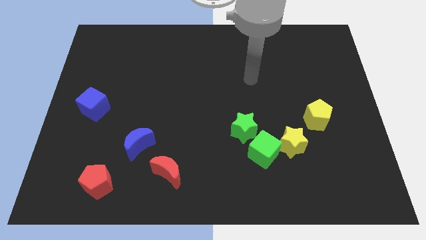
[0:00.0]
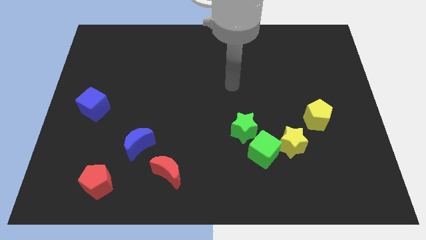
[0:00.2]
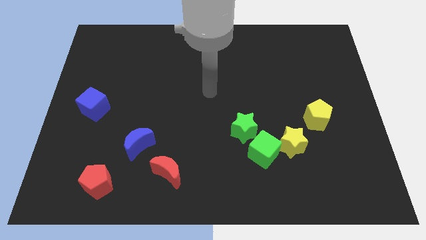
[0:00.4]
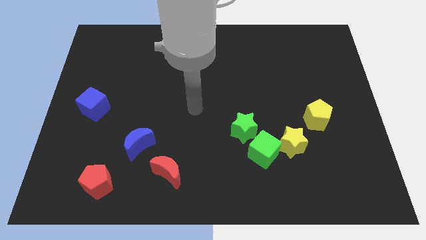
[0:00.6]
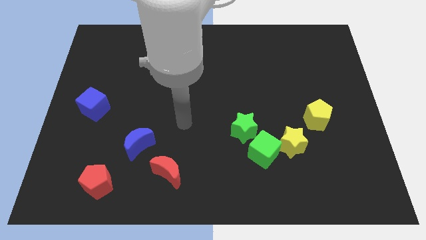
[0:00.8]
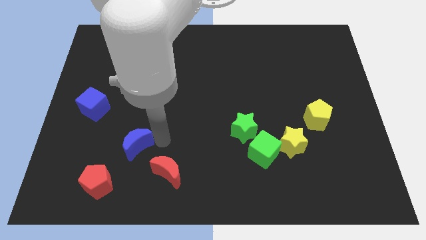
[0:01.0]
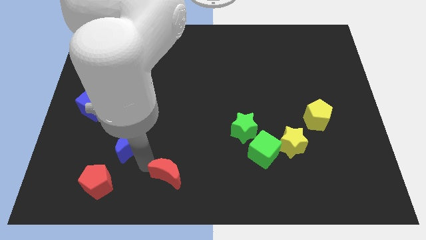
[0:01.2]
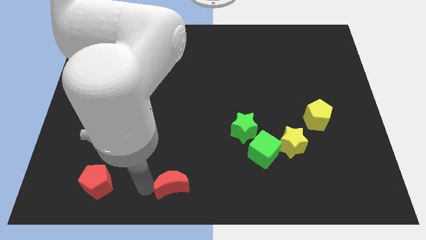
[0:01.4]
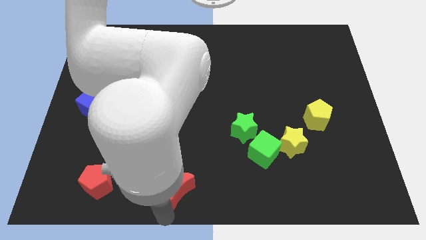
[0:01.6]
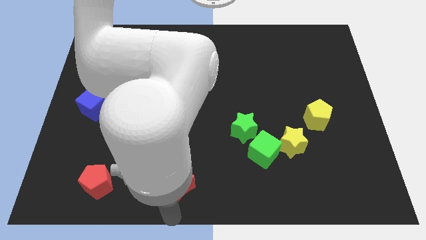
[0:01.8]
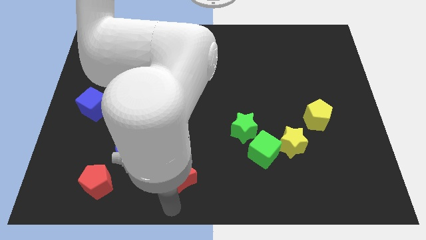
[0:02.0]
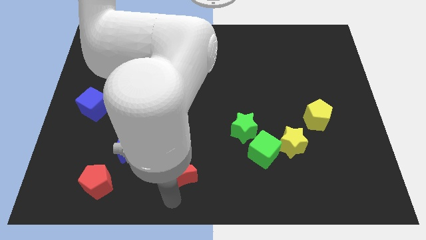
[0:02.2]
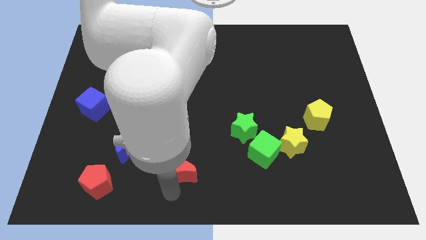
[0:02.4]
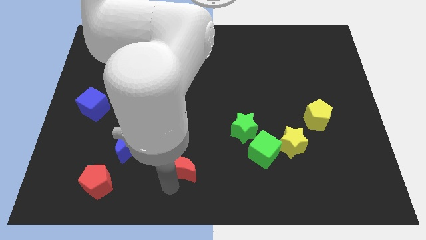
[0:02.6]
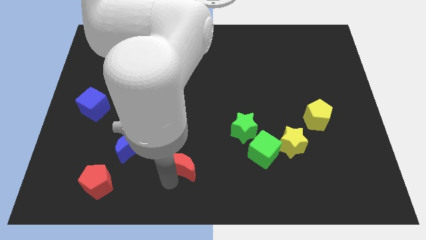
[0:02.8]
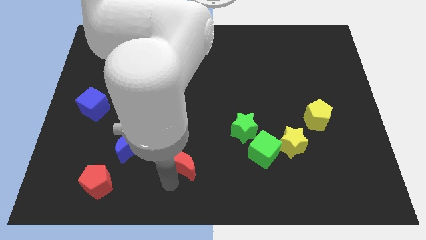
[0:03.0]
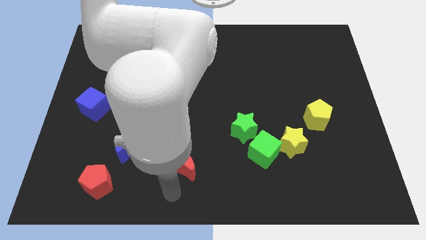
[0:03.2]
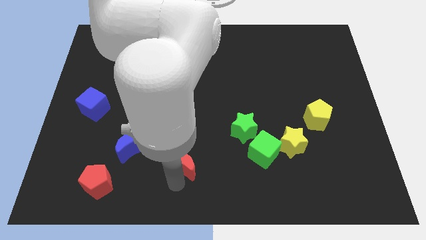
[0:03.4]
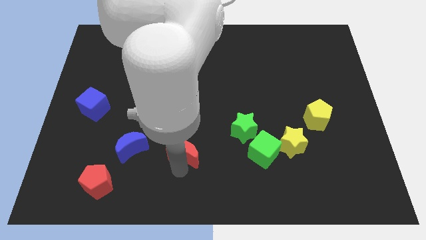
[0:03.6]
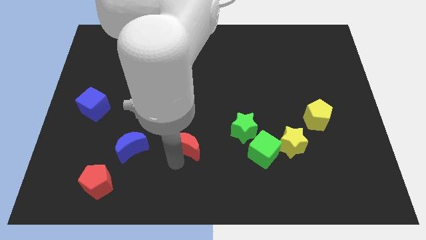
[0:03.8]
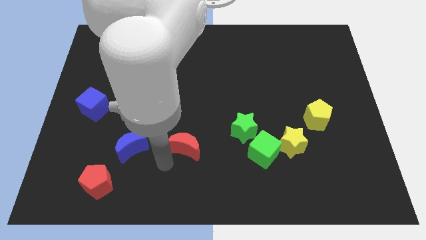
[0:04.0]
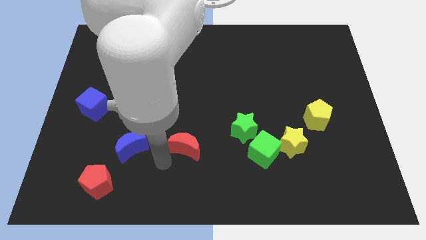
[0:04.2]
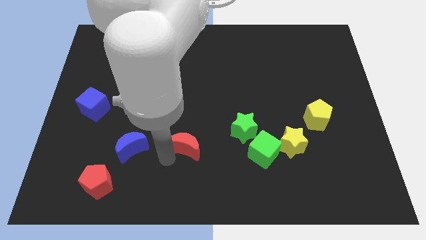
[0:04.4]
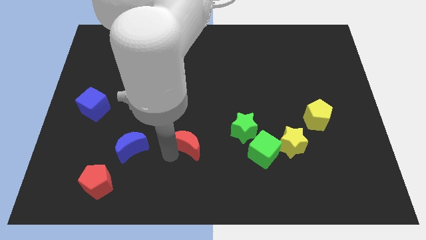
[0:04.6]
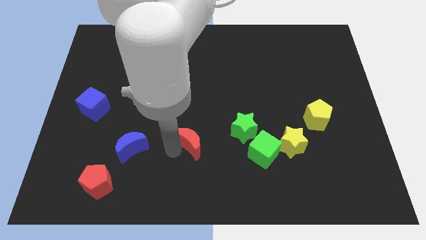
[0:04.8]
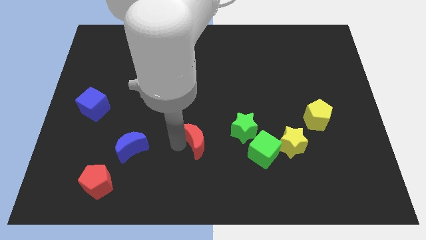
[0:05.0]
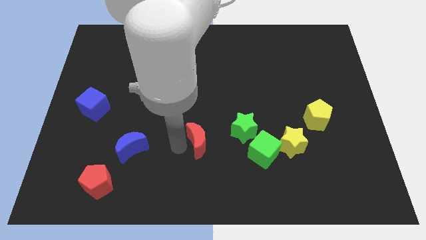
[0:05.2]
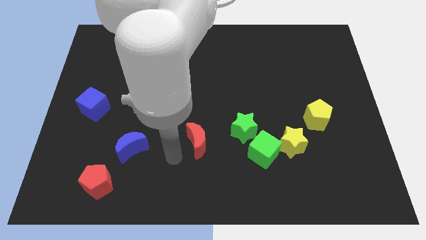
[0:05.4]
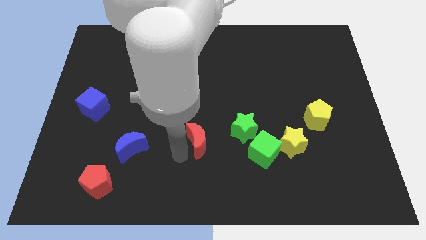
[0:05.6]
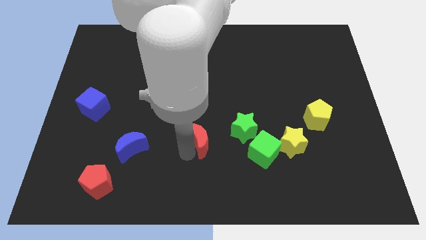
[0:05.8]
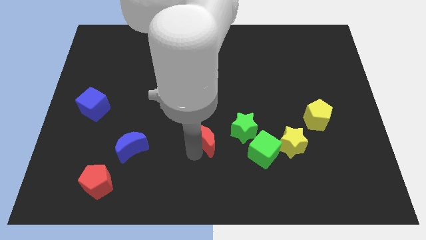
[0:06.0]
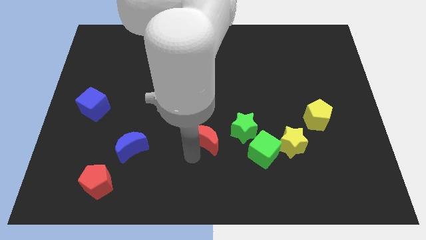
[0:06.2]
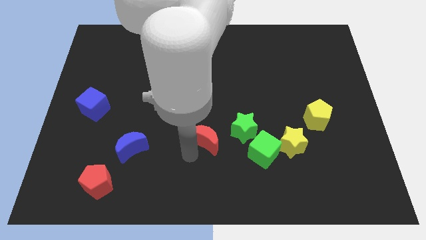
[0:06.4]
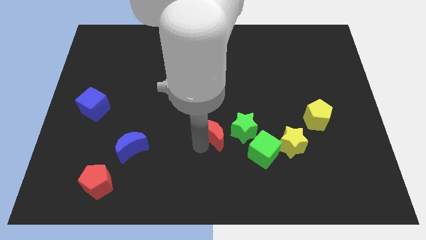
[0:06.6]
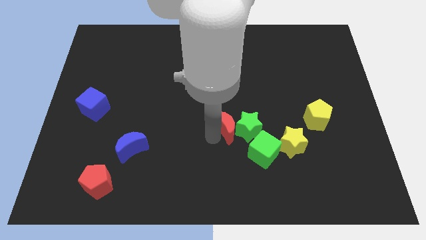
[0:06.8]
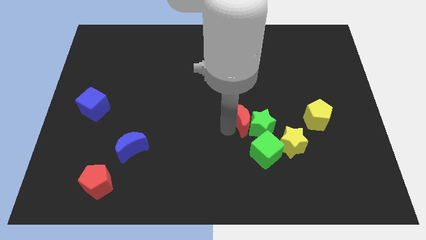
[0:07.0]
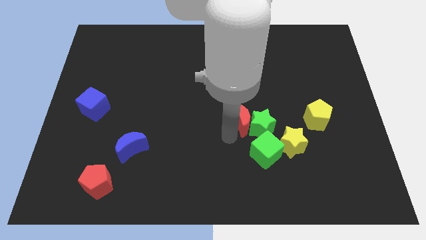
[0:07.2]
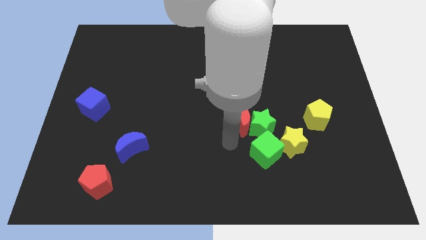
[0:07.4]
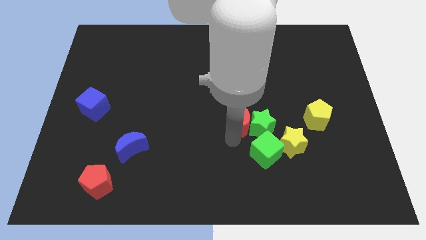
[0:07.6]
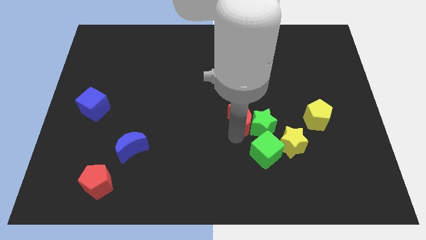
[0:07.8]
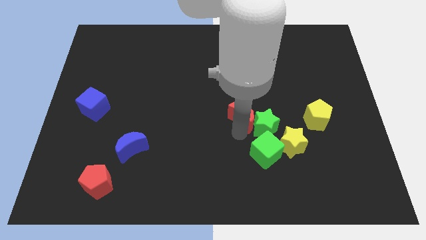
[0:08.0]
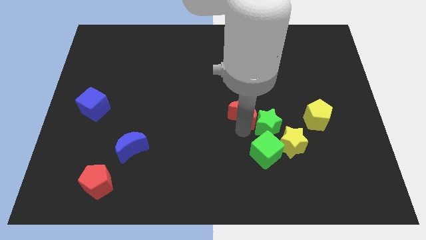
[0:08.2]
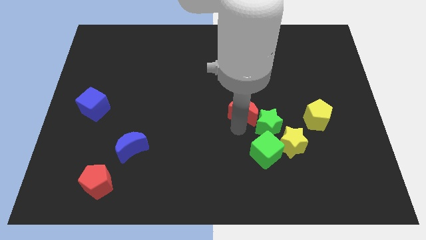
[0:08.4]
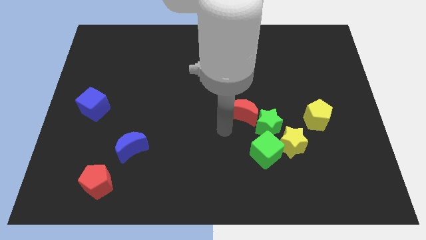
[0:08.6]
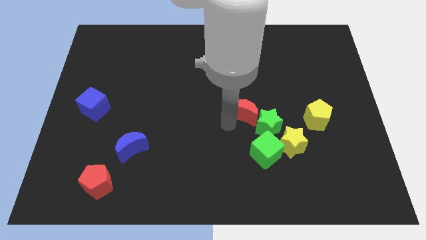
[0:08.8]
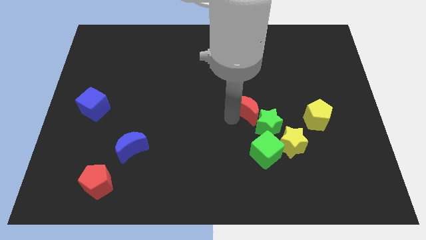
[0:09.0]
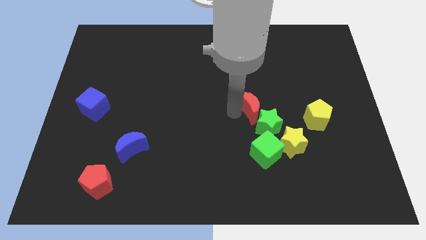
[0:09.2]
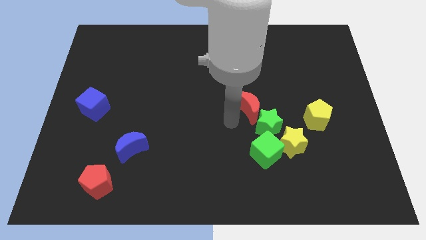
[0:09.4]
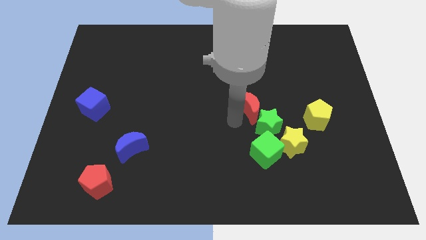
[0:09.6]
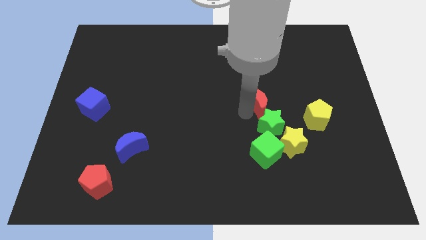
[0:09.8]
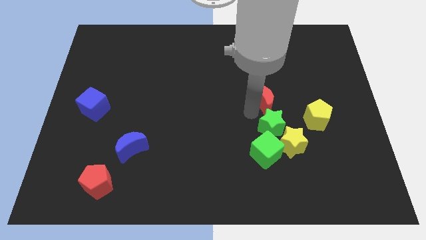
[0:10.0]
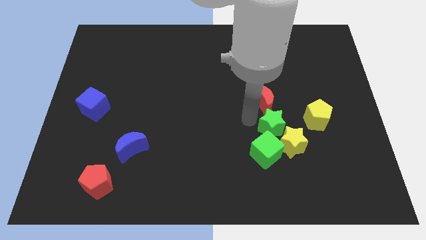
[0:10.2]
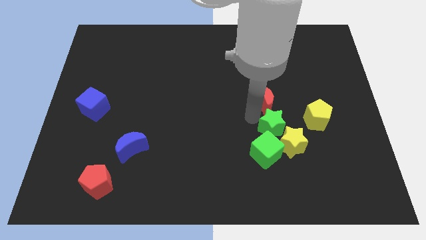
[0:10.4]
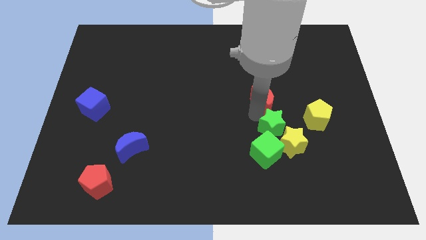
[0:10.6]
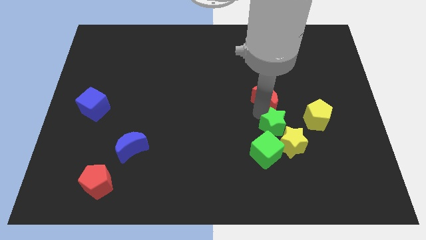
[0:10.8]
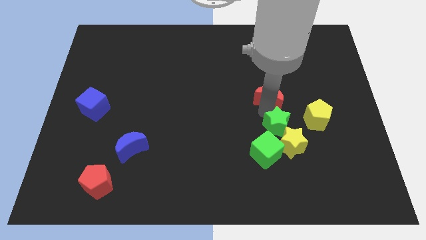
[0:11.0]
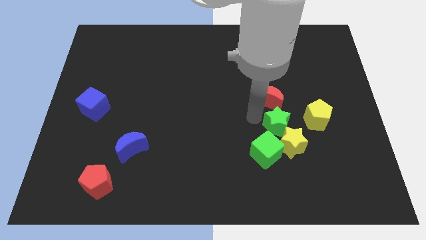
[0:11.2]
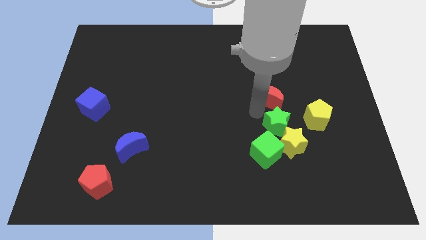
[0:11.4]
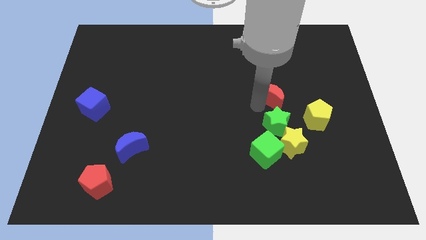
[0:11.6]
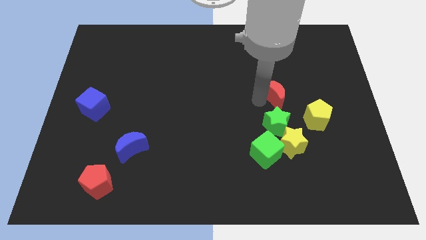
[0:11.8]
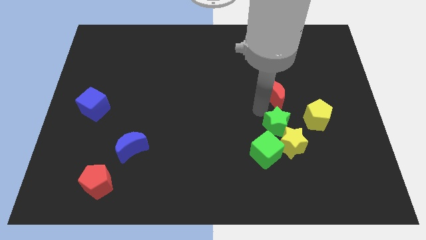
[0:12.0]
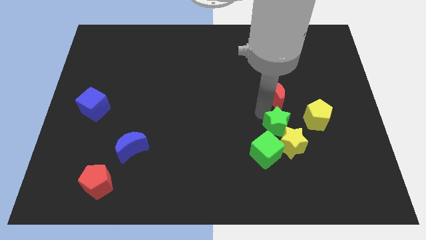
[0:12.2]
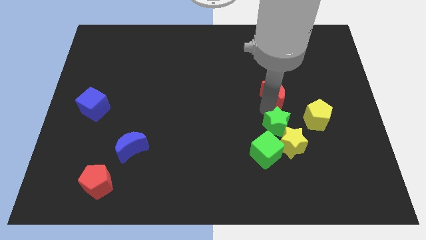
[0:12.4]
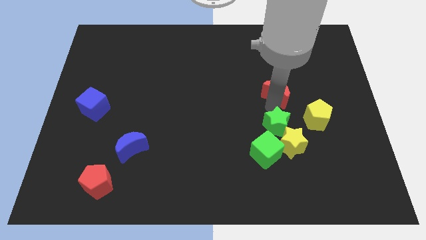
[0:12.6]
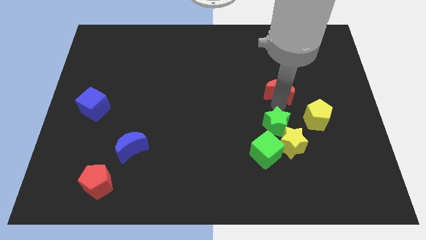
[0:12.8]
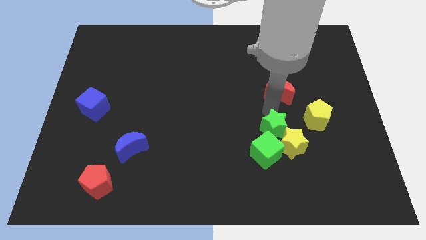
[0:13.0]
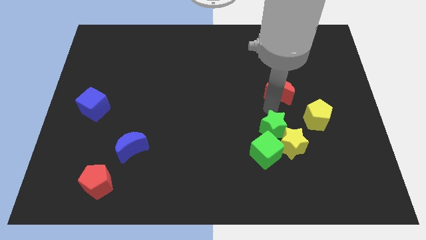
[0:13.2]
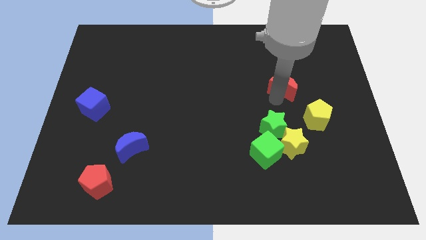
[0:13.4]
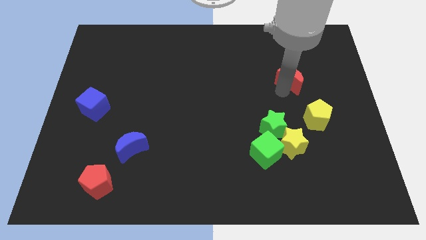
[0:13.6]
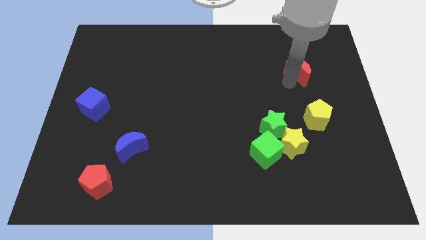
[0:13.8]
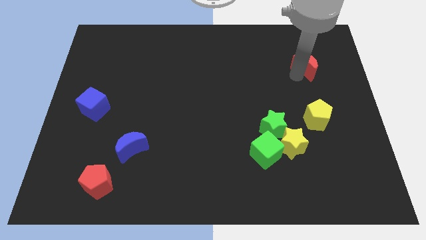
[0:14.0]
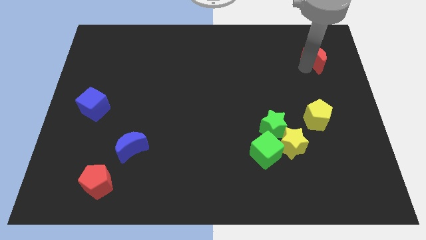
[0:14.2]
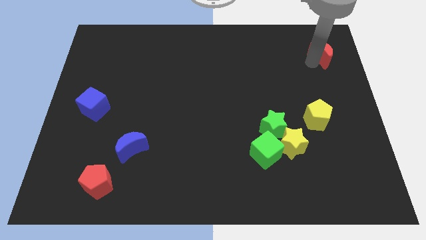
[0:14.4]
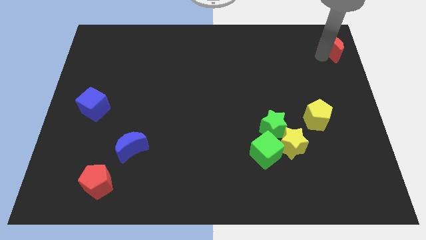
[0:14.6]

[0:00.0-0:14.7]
move the red moon to the upper right corner

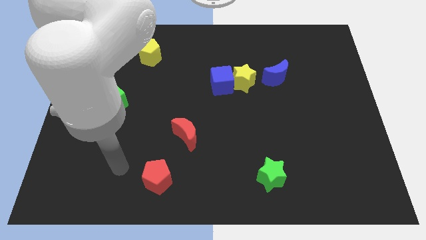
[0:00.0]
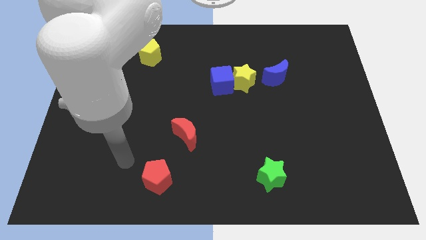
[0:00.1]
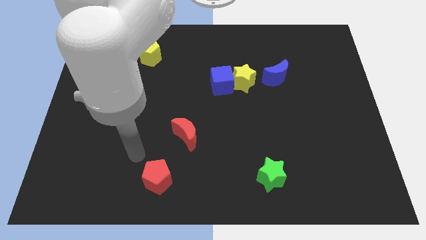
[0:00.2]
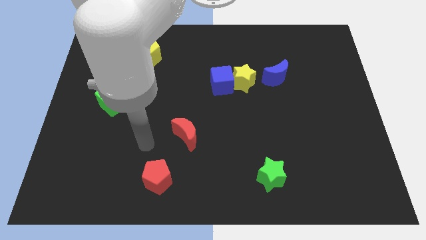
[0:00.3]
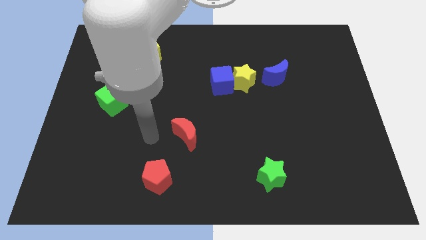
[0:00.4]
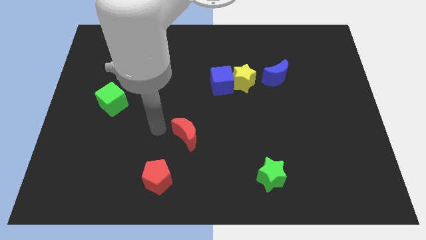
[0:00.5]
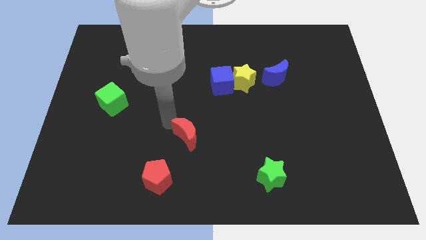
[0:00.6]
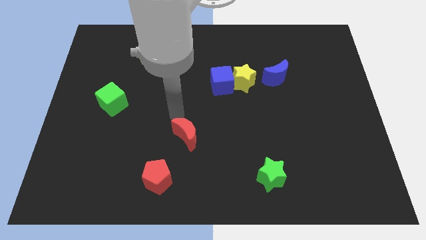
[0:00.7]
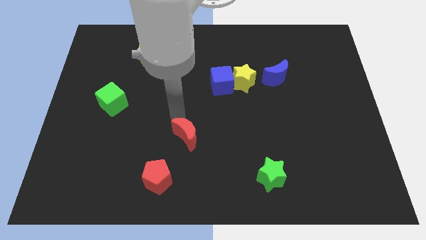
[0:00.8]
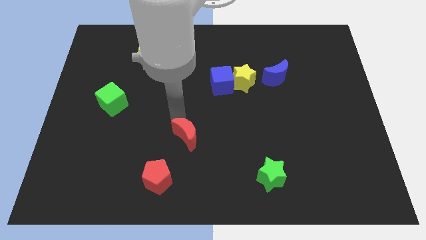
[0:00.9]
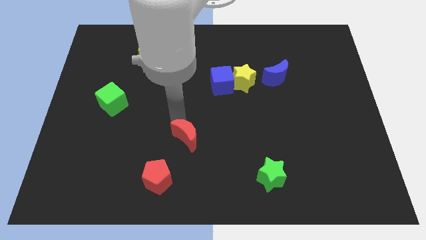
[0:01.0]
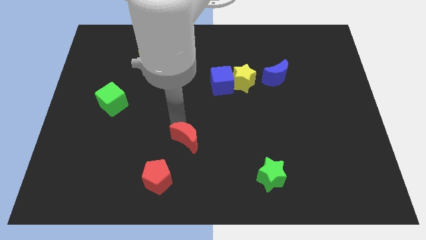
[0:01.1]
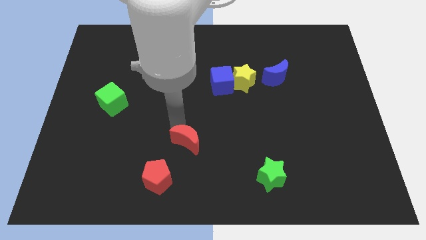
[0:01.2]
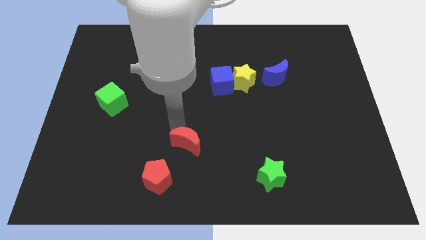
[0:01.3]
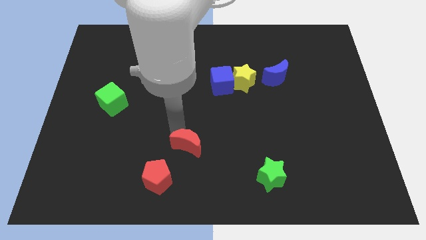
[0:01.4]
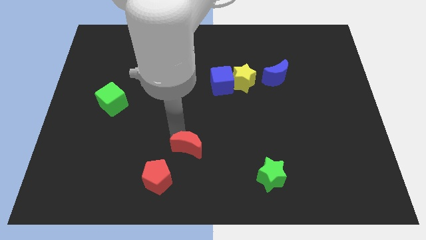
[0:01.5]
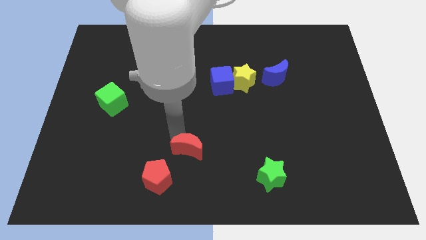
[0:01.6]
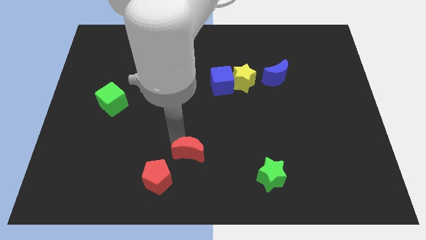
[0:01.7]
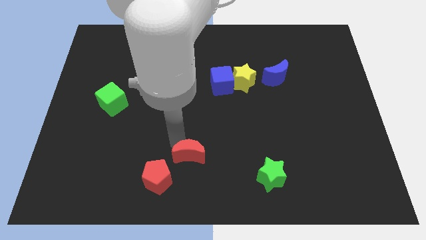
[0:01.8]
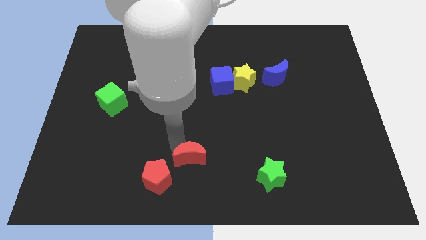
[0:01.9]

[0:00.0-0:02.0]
slide the red moon to the bottom side
